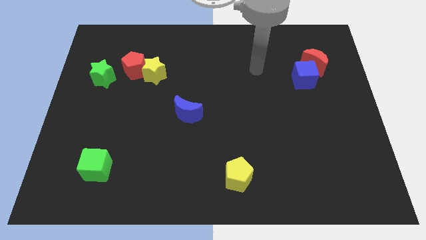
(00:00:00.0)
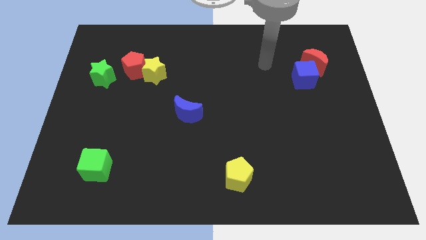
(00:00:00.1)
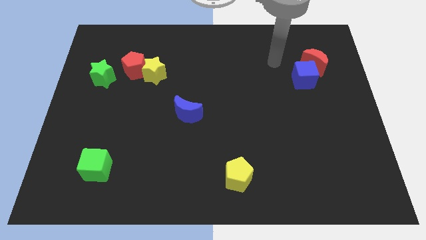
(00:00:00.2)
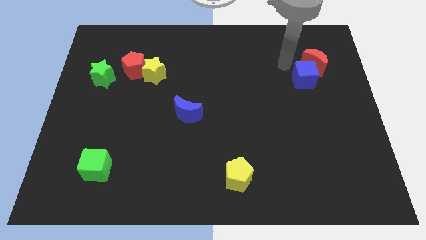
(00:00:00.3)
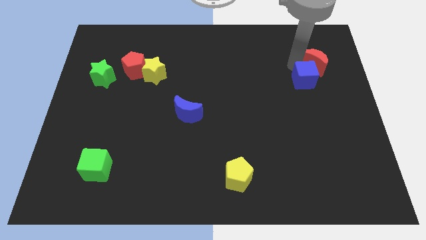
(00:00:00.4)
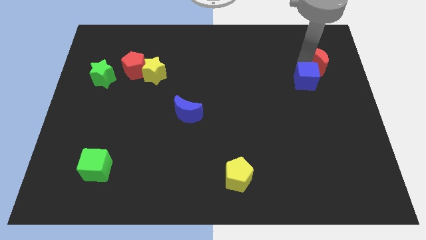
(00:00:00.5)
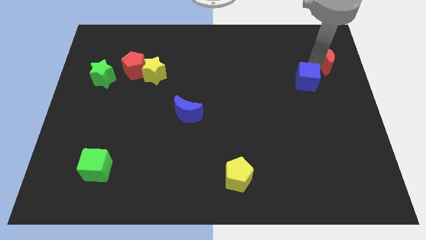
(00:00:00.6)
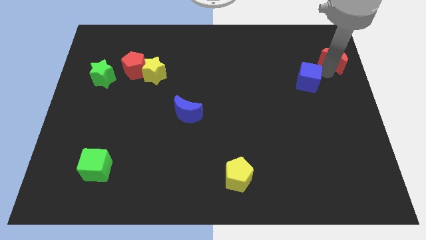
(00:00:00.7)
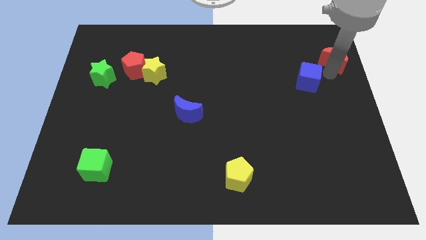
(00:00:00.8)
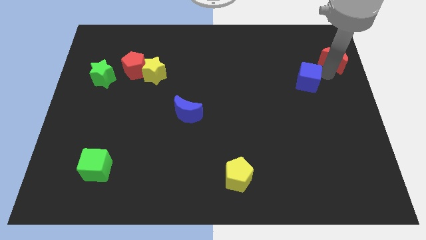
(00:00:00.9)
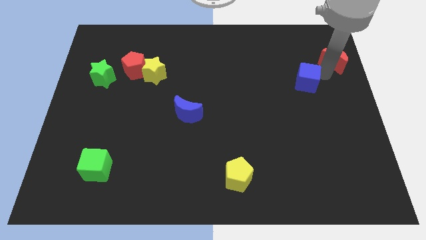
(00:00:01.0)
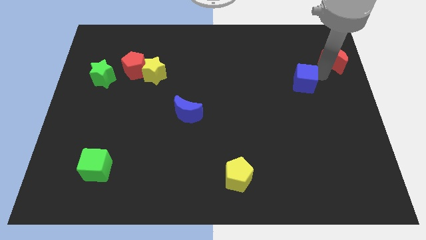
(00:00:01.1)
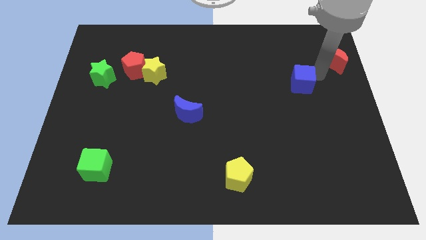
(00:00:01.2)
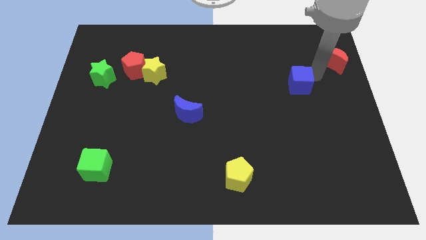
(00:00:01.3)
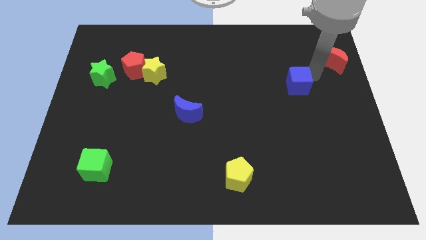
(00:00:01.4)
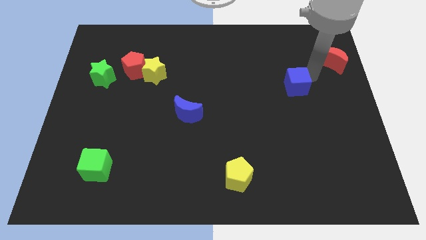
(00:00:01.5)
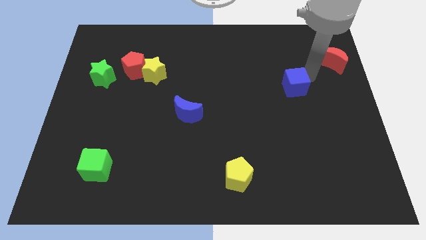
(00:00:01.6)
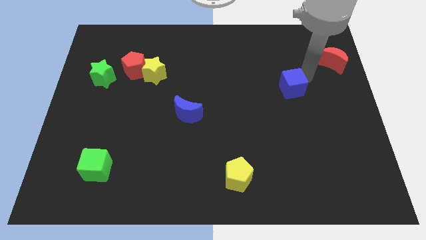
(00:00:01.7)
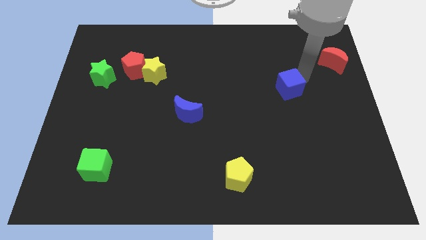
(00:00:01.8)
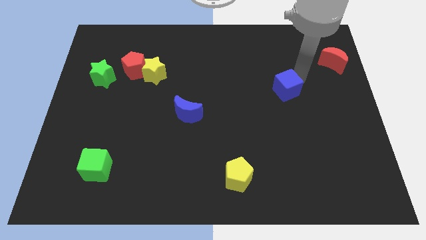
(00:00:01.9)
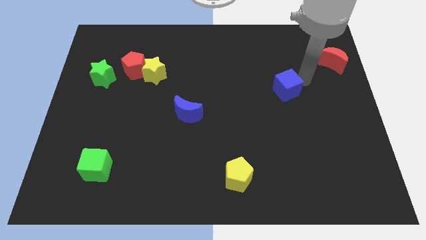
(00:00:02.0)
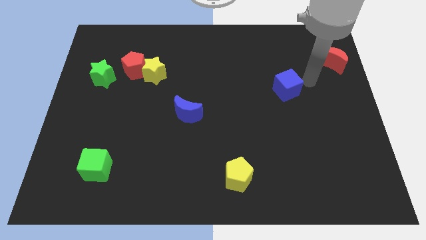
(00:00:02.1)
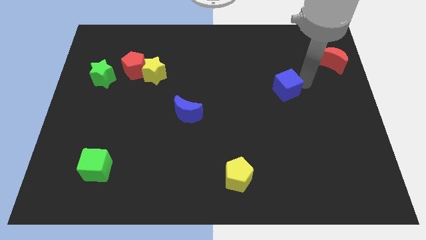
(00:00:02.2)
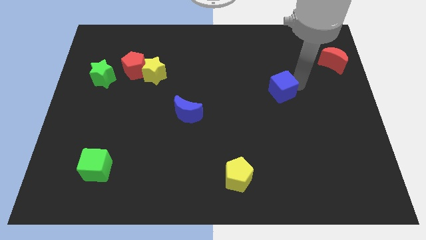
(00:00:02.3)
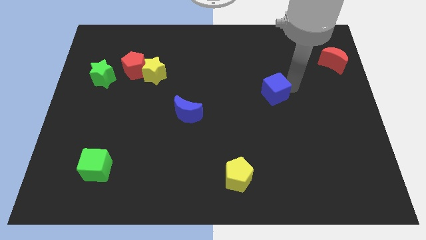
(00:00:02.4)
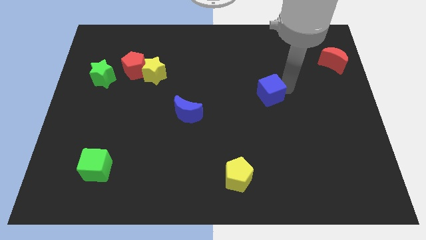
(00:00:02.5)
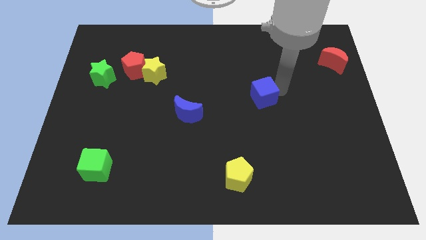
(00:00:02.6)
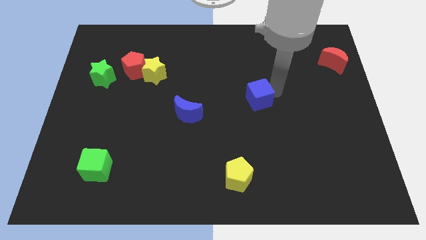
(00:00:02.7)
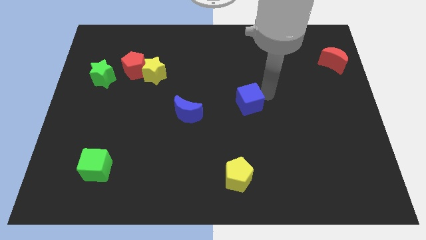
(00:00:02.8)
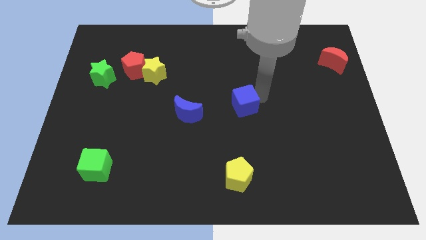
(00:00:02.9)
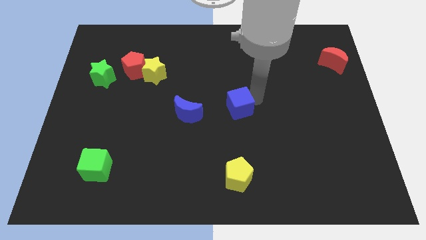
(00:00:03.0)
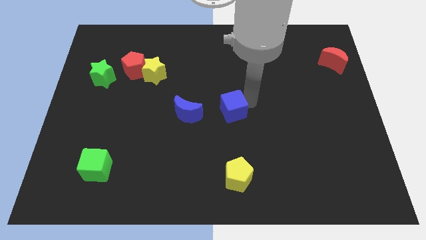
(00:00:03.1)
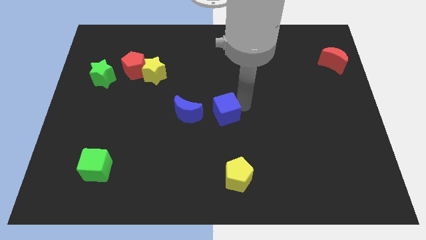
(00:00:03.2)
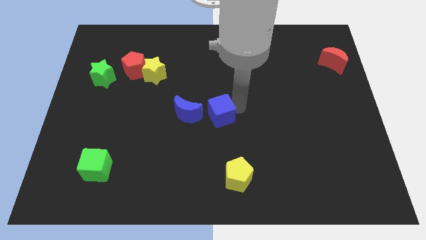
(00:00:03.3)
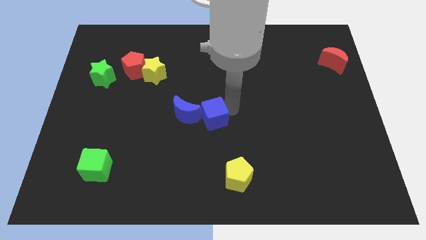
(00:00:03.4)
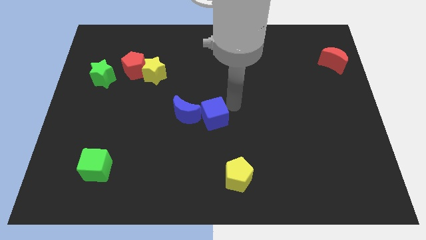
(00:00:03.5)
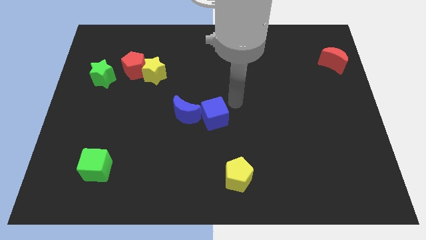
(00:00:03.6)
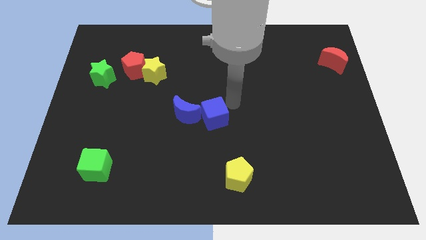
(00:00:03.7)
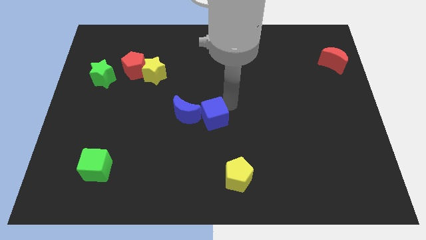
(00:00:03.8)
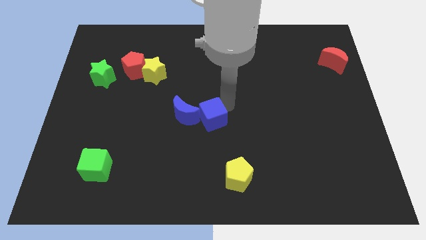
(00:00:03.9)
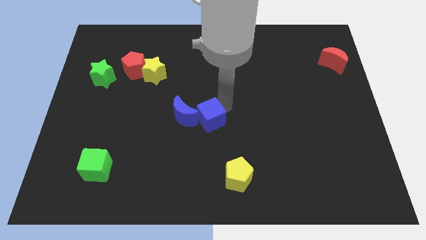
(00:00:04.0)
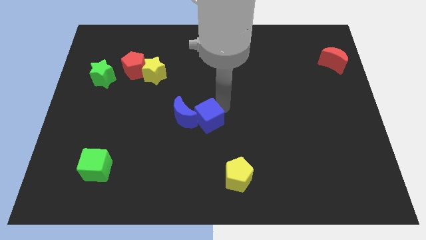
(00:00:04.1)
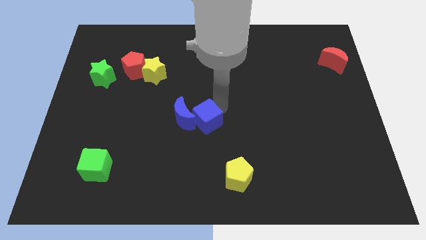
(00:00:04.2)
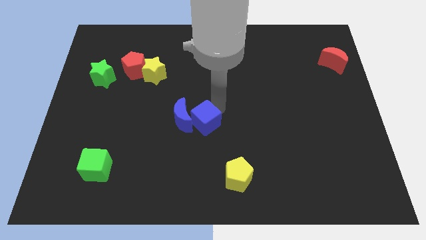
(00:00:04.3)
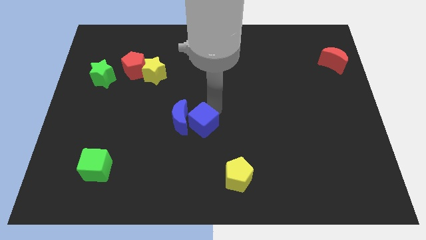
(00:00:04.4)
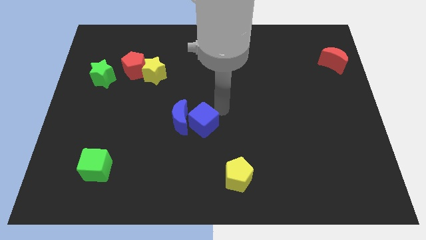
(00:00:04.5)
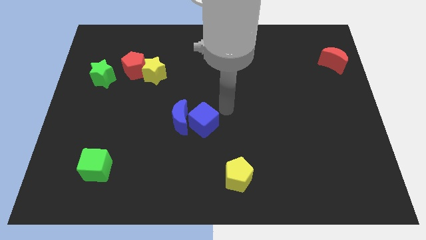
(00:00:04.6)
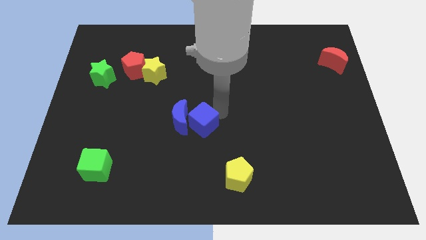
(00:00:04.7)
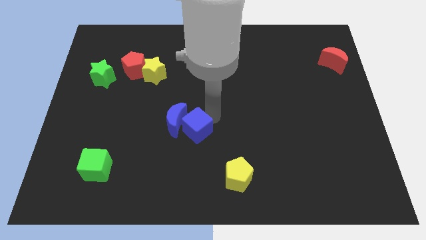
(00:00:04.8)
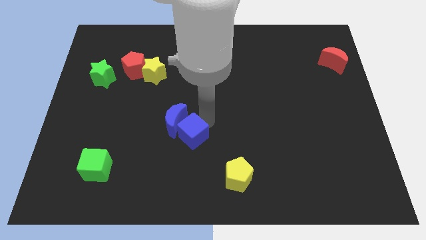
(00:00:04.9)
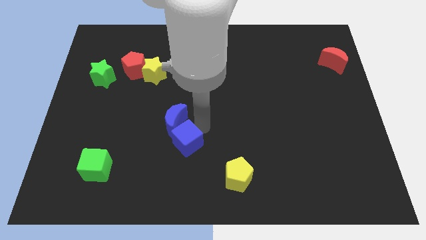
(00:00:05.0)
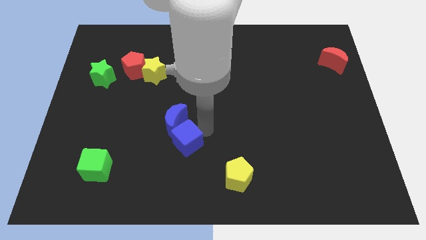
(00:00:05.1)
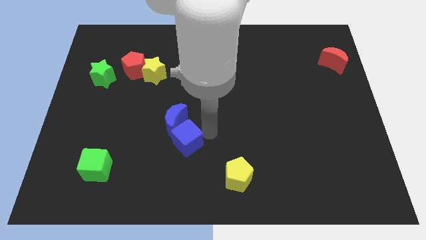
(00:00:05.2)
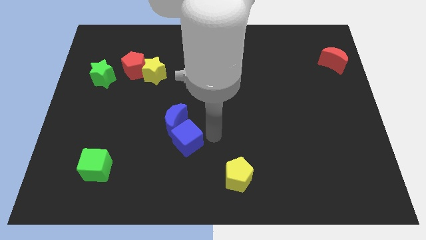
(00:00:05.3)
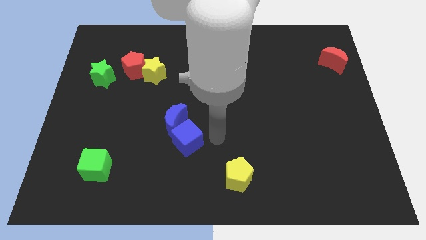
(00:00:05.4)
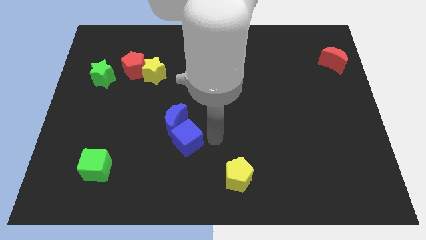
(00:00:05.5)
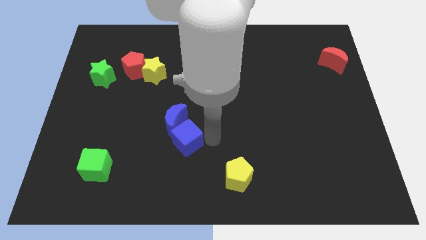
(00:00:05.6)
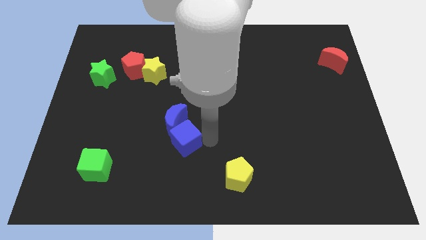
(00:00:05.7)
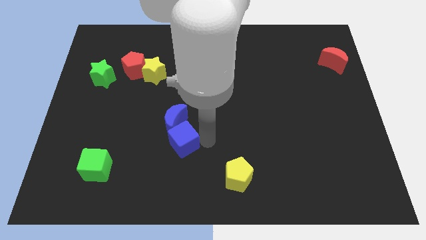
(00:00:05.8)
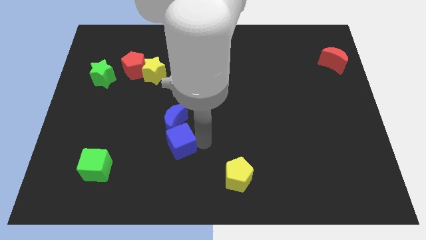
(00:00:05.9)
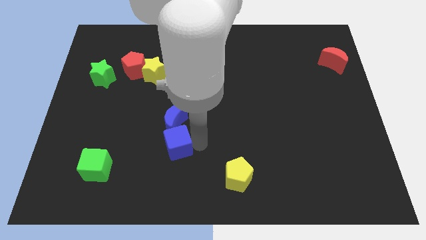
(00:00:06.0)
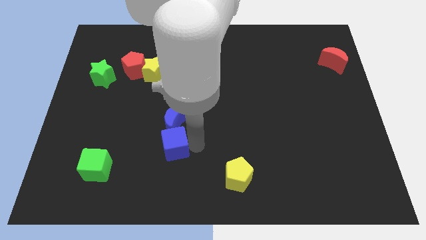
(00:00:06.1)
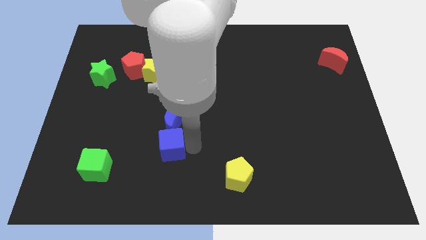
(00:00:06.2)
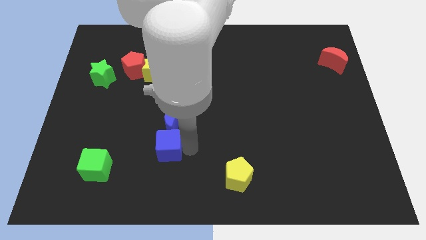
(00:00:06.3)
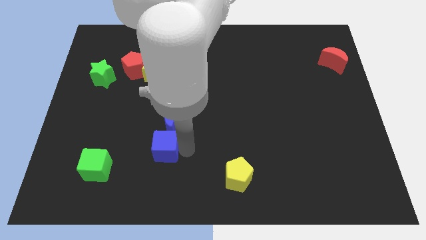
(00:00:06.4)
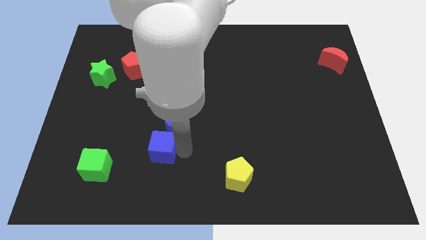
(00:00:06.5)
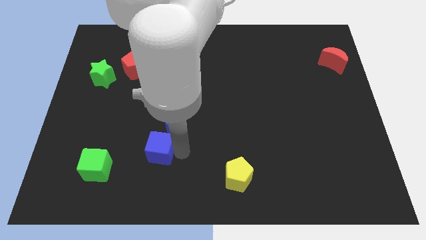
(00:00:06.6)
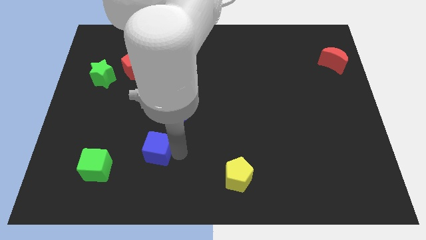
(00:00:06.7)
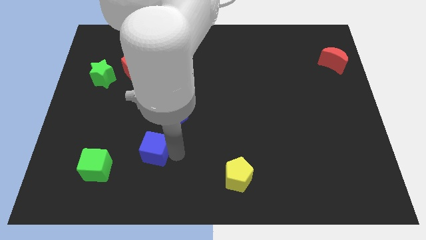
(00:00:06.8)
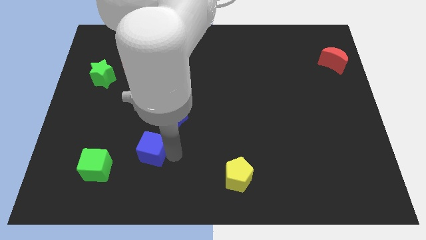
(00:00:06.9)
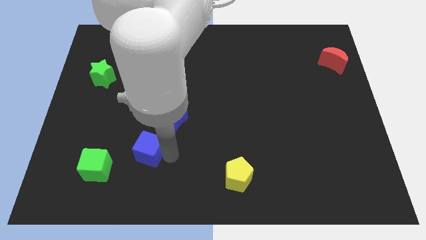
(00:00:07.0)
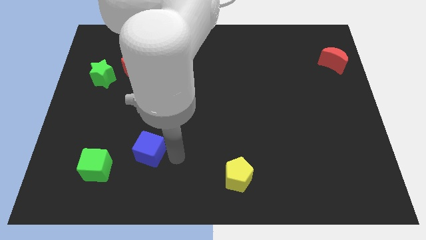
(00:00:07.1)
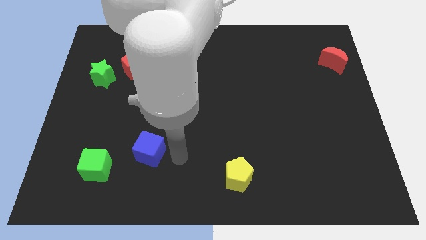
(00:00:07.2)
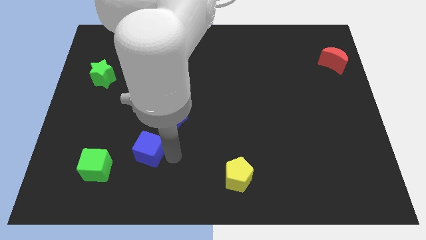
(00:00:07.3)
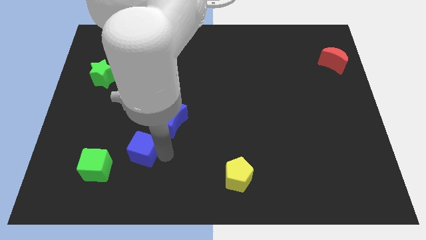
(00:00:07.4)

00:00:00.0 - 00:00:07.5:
put the blue cube to the top right side of the green cube
